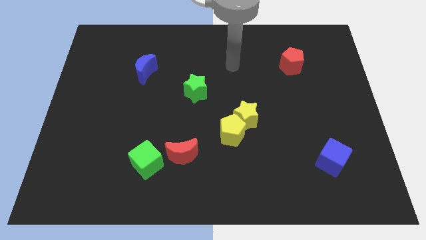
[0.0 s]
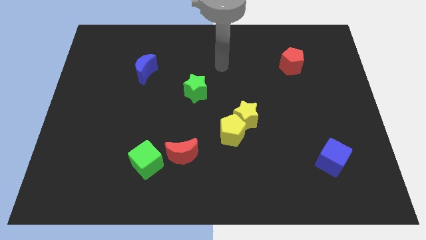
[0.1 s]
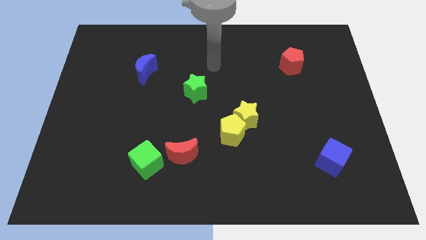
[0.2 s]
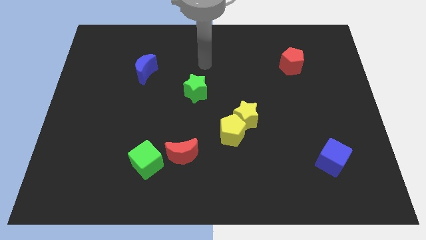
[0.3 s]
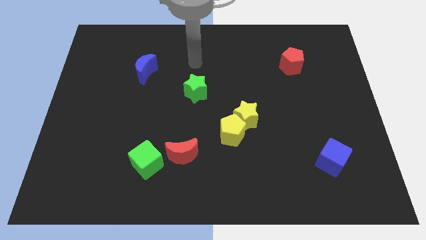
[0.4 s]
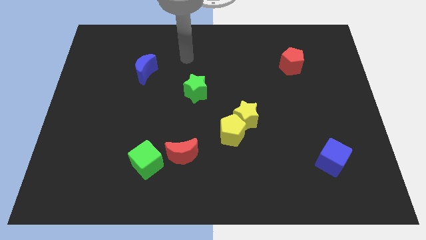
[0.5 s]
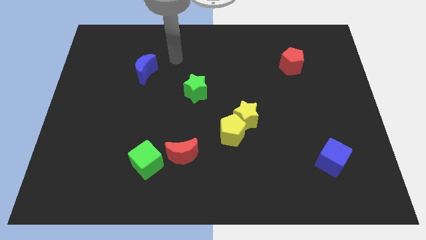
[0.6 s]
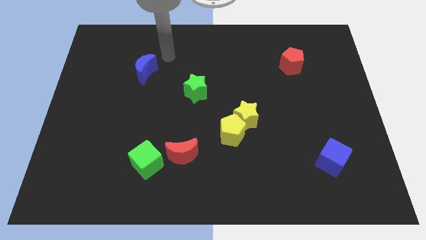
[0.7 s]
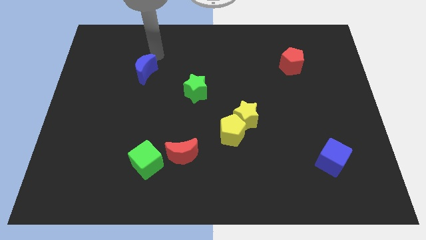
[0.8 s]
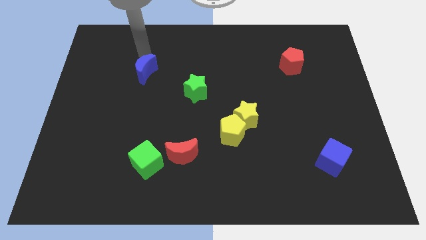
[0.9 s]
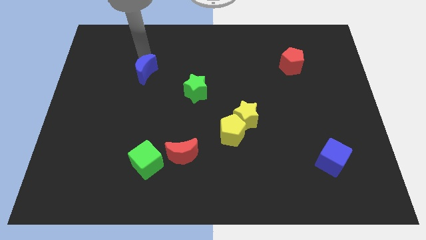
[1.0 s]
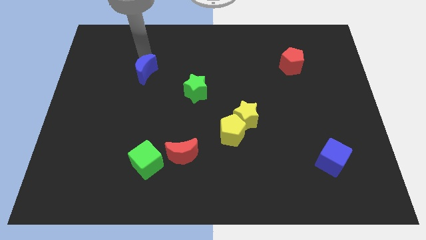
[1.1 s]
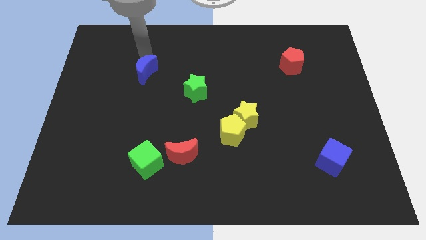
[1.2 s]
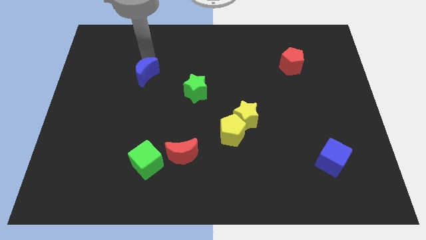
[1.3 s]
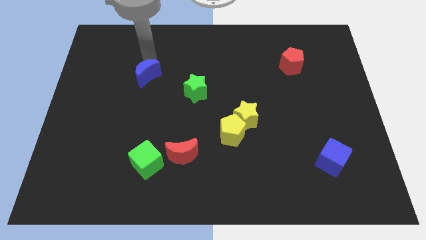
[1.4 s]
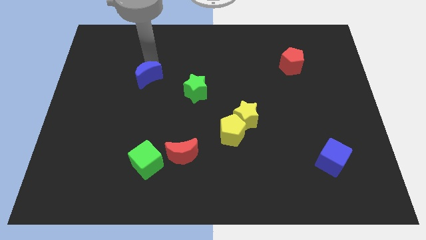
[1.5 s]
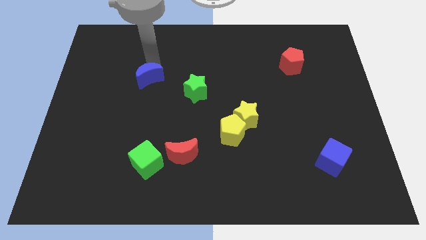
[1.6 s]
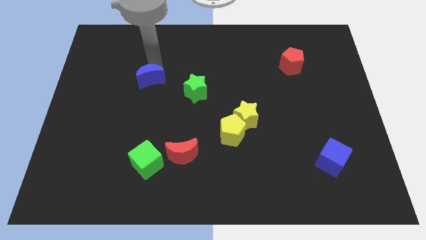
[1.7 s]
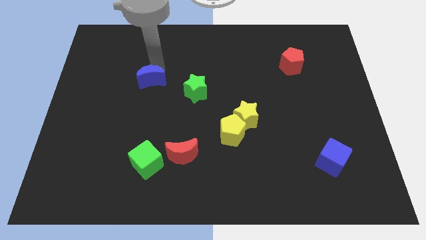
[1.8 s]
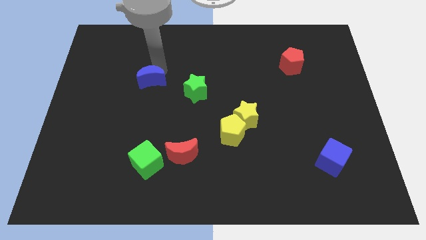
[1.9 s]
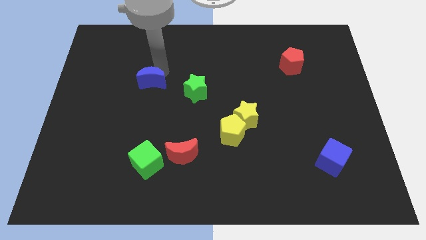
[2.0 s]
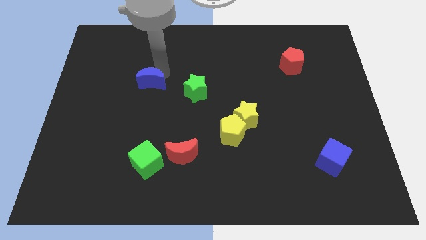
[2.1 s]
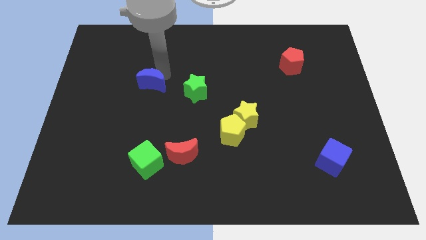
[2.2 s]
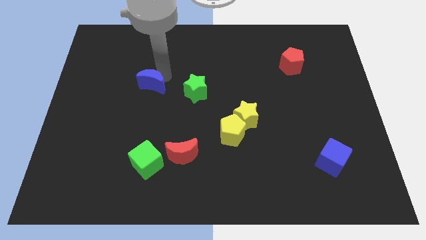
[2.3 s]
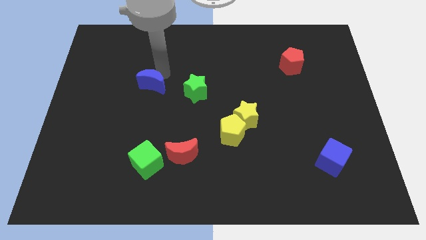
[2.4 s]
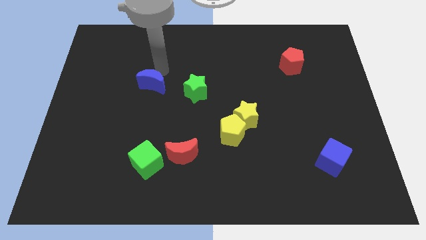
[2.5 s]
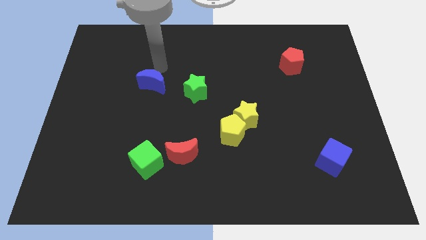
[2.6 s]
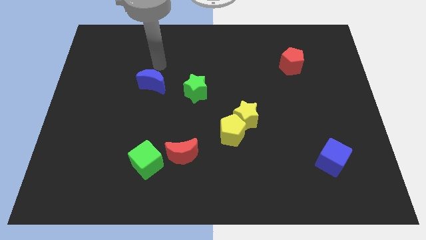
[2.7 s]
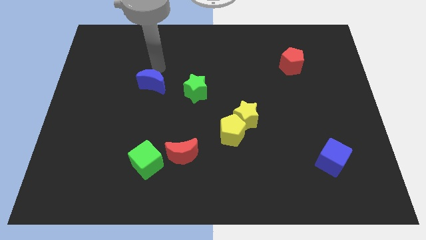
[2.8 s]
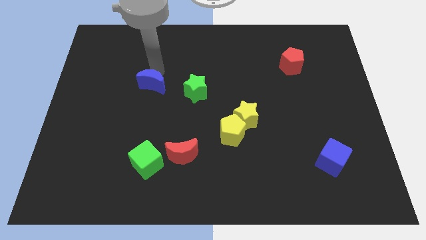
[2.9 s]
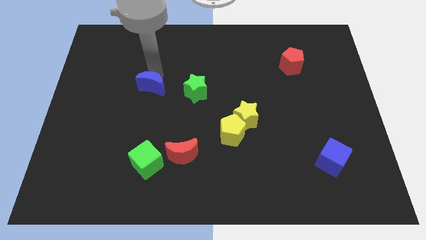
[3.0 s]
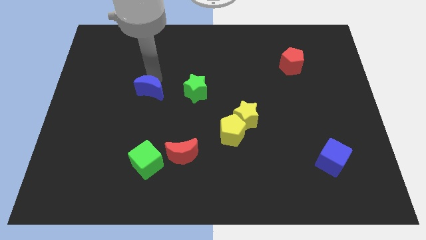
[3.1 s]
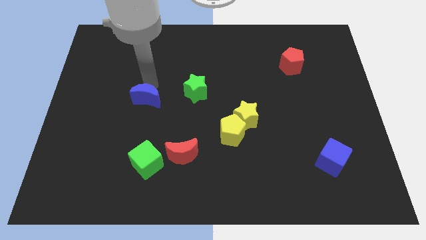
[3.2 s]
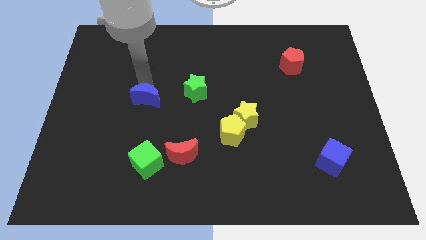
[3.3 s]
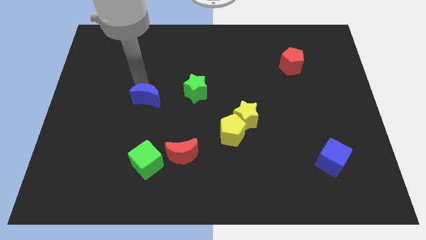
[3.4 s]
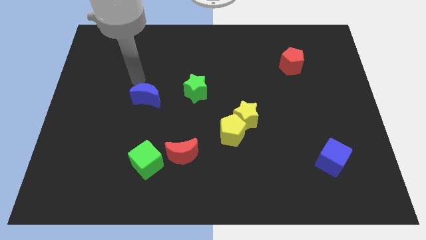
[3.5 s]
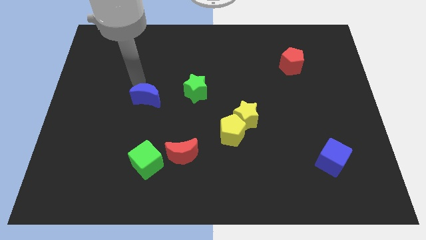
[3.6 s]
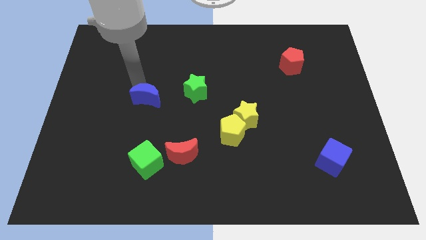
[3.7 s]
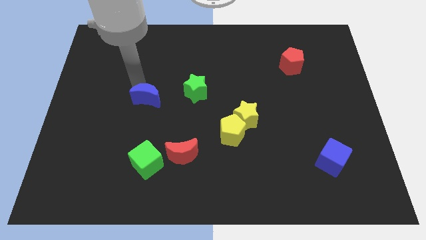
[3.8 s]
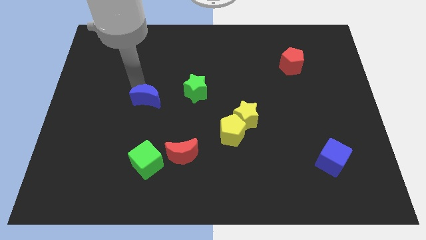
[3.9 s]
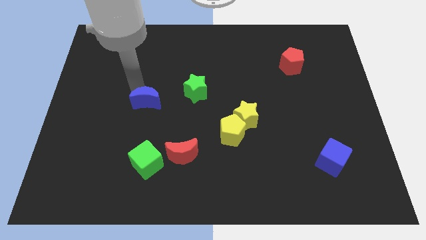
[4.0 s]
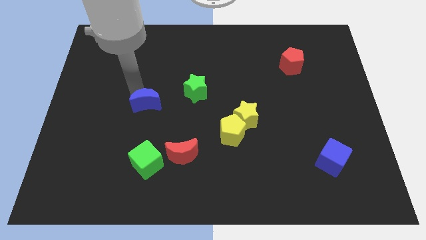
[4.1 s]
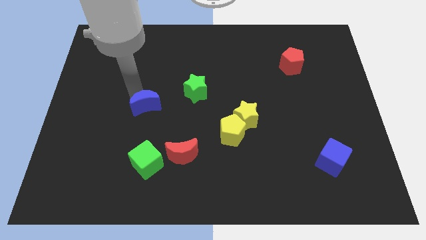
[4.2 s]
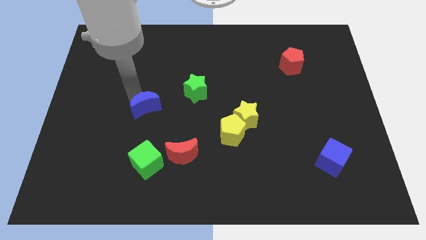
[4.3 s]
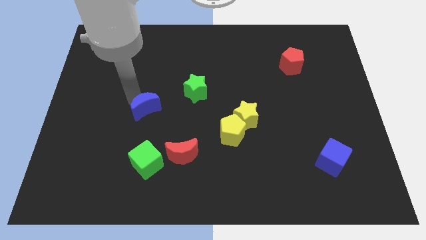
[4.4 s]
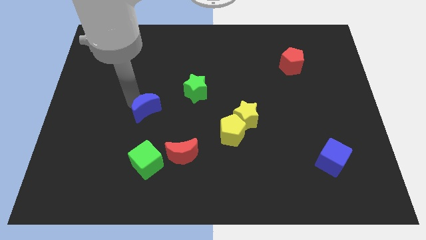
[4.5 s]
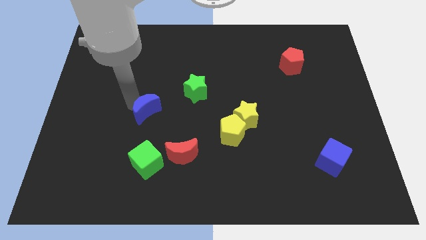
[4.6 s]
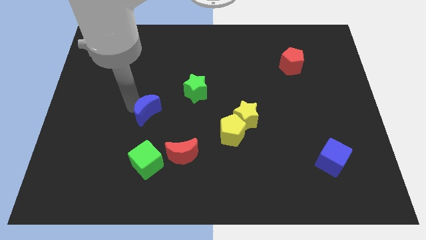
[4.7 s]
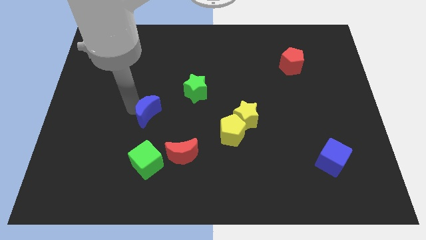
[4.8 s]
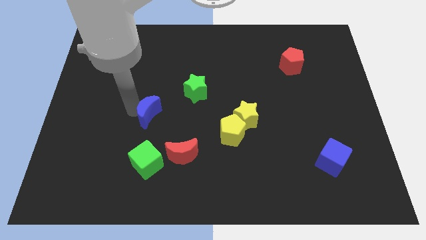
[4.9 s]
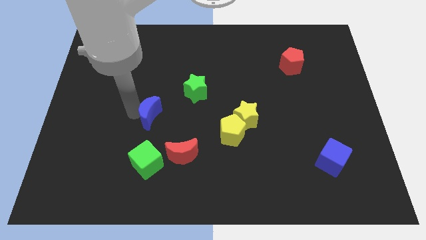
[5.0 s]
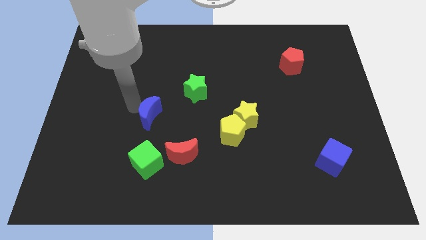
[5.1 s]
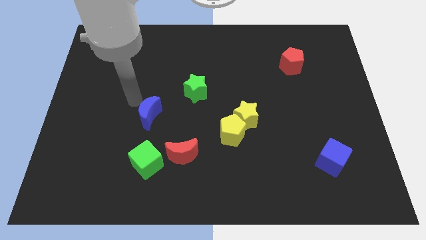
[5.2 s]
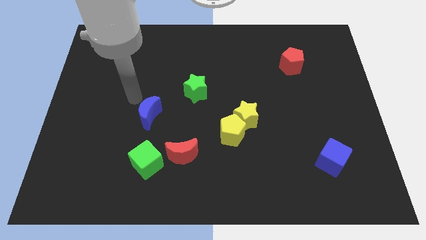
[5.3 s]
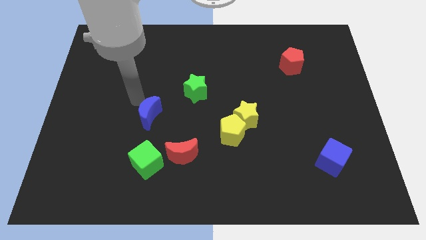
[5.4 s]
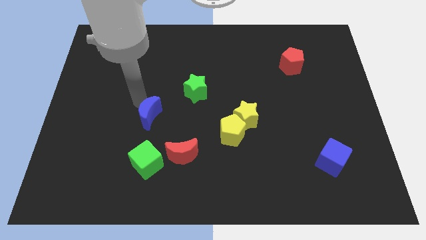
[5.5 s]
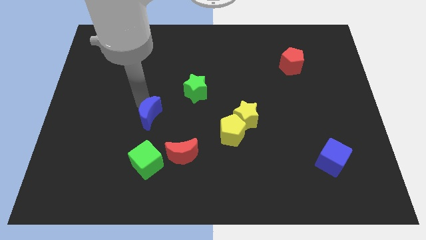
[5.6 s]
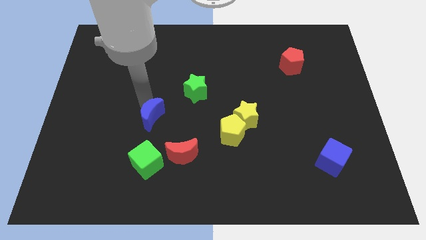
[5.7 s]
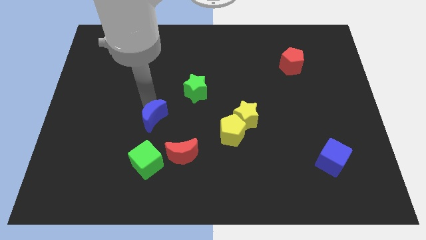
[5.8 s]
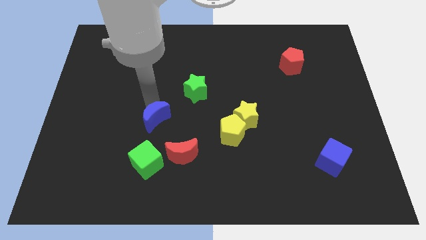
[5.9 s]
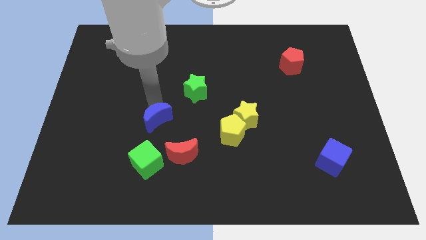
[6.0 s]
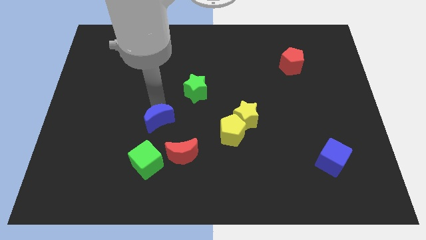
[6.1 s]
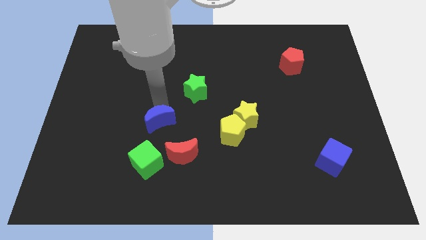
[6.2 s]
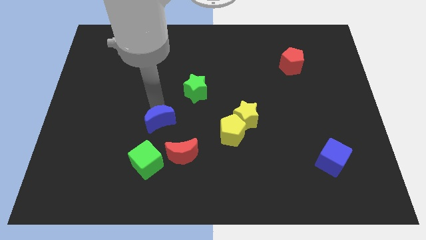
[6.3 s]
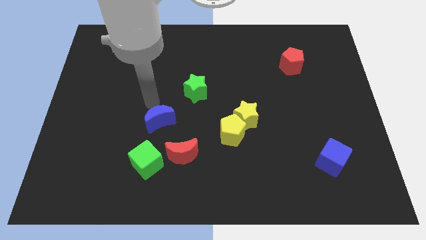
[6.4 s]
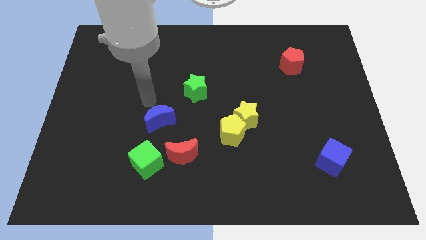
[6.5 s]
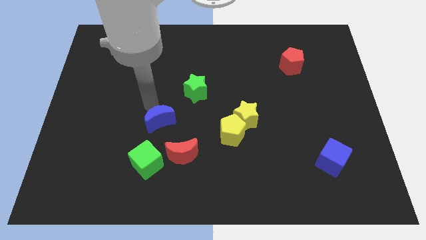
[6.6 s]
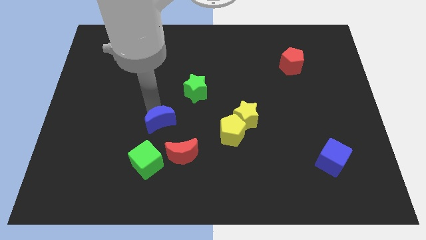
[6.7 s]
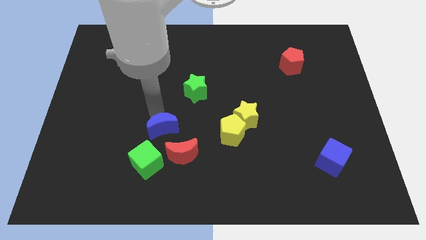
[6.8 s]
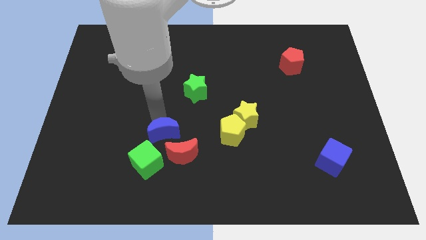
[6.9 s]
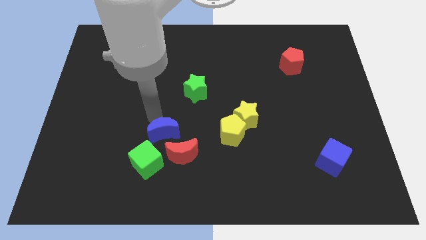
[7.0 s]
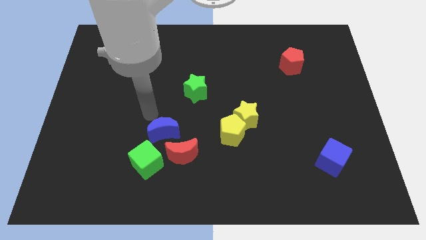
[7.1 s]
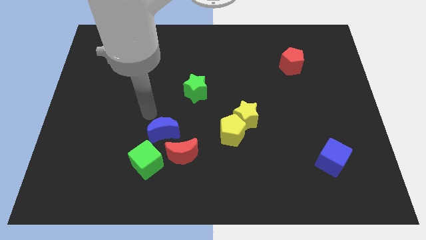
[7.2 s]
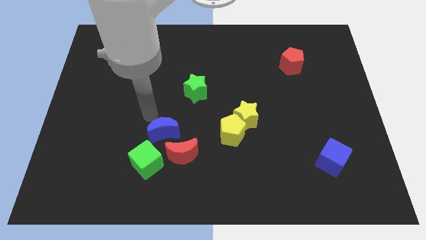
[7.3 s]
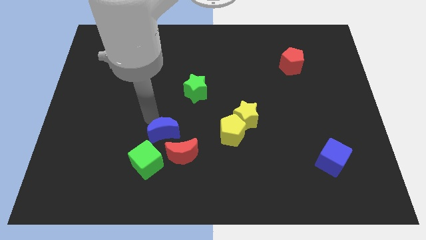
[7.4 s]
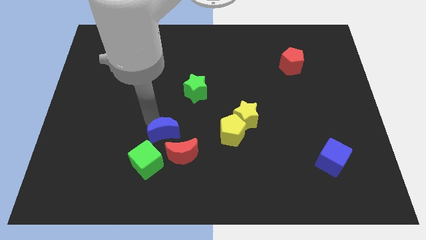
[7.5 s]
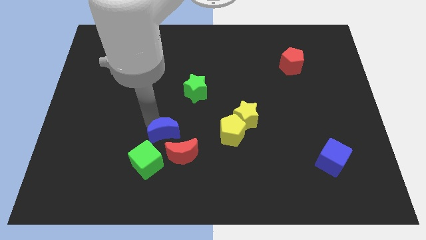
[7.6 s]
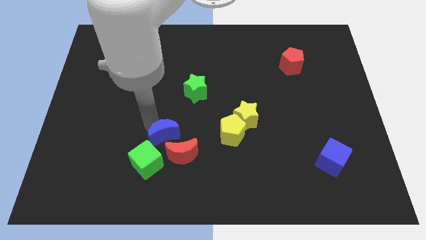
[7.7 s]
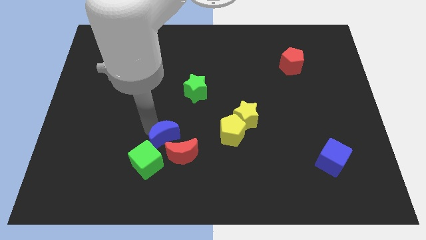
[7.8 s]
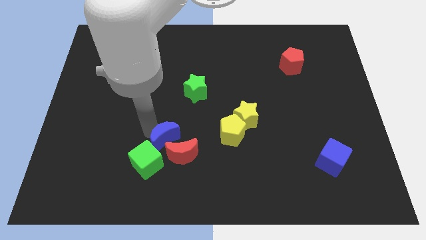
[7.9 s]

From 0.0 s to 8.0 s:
push the blue moon next to the red moon
